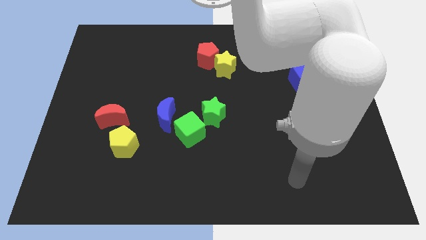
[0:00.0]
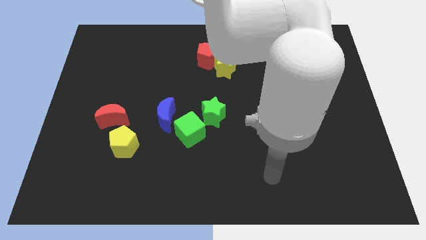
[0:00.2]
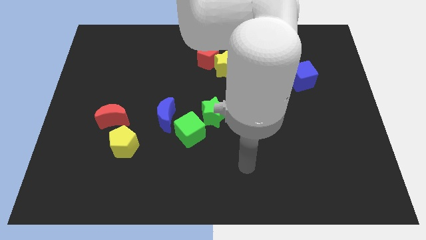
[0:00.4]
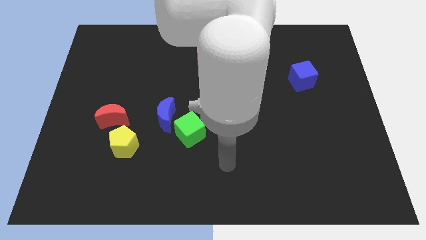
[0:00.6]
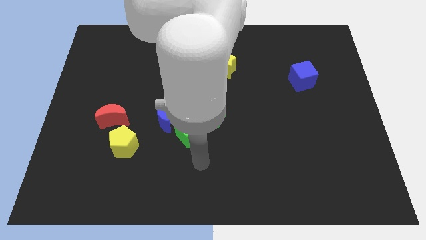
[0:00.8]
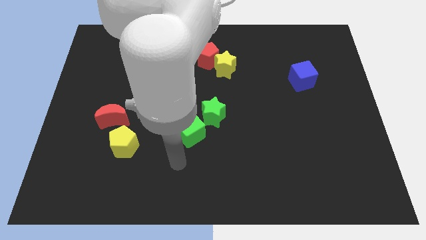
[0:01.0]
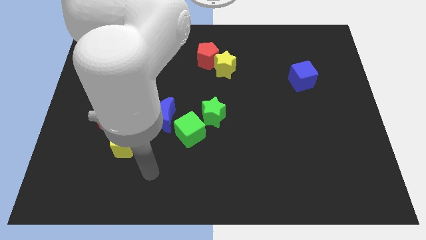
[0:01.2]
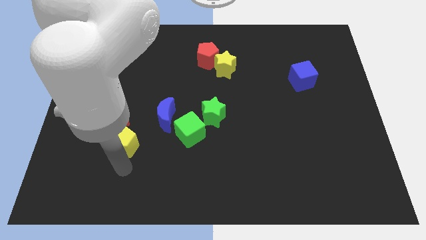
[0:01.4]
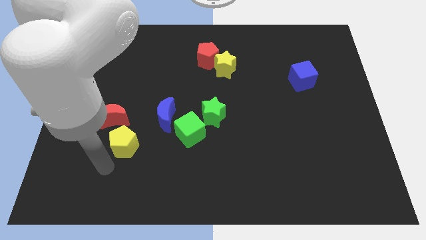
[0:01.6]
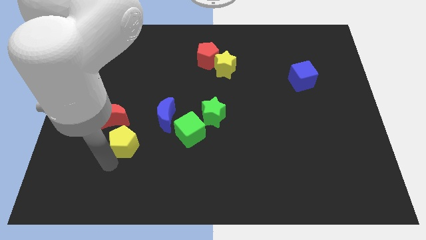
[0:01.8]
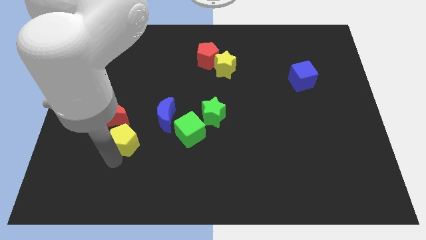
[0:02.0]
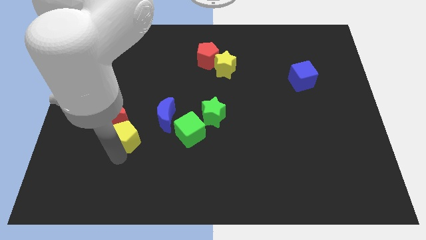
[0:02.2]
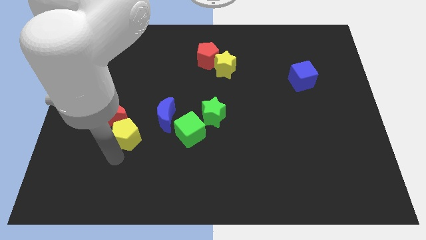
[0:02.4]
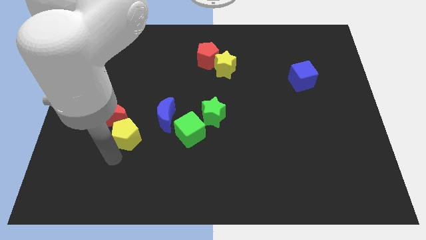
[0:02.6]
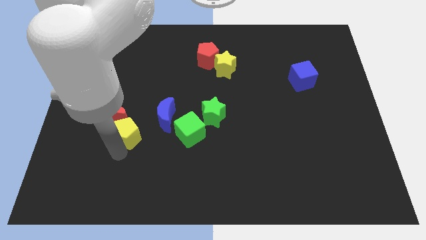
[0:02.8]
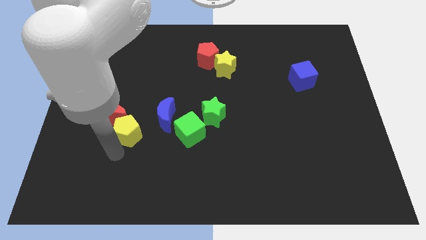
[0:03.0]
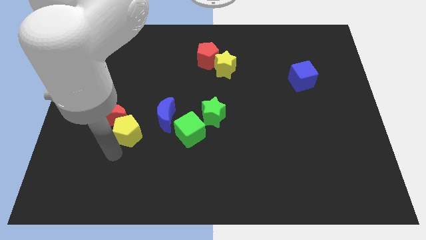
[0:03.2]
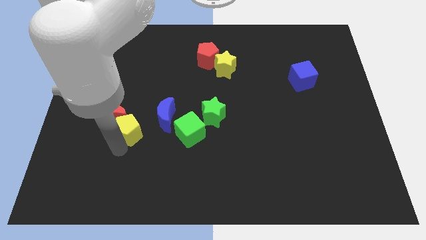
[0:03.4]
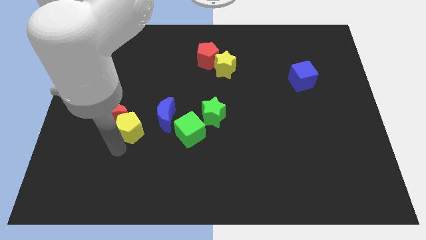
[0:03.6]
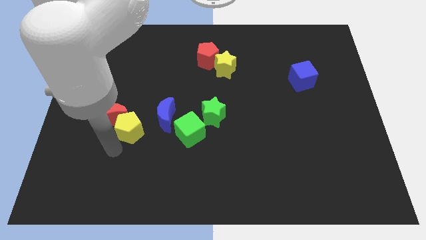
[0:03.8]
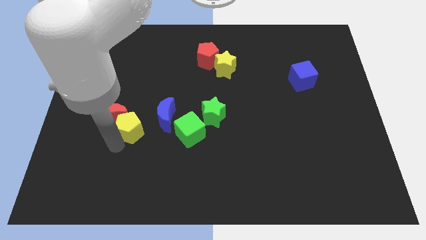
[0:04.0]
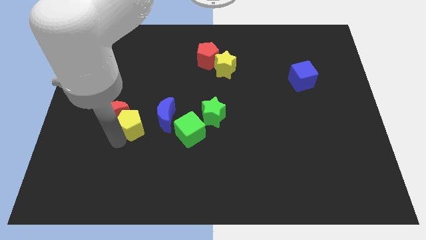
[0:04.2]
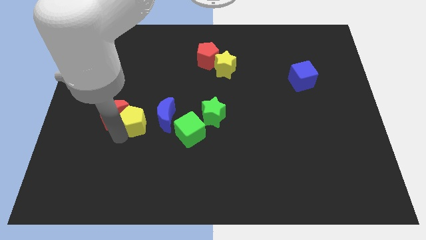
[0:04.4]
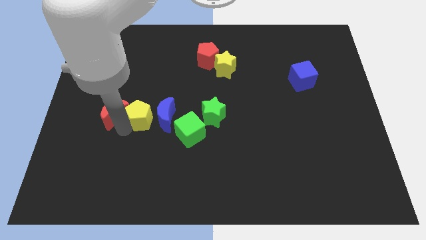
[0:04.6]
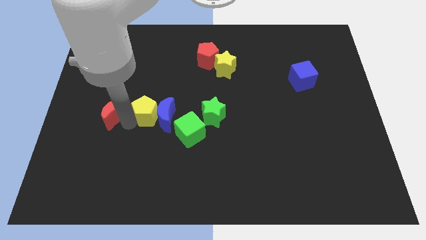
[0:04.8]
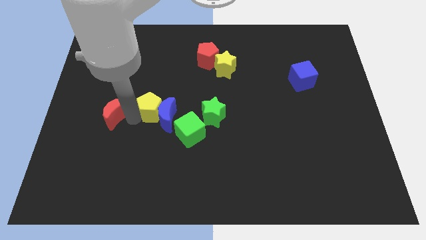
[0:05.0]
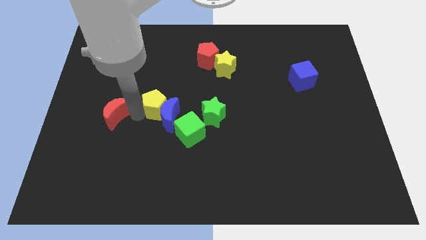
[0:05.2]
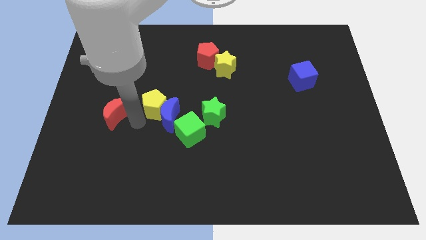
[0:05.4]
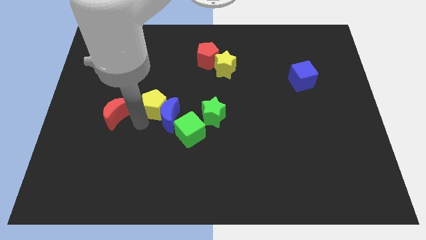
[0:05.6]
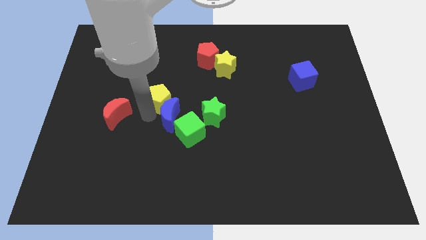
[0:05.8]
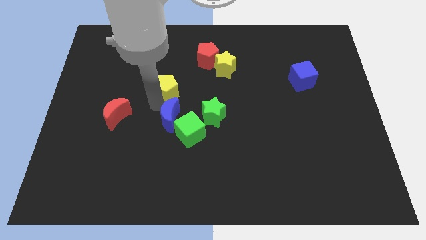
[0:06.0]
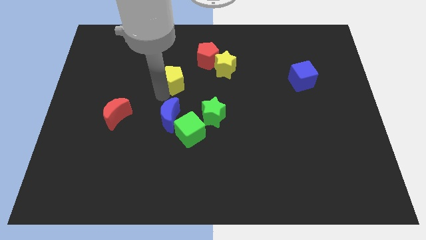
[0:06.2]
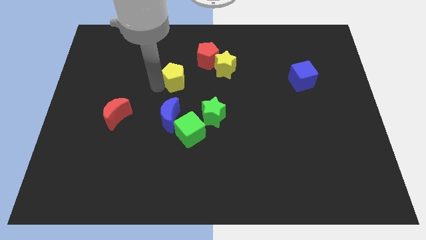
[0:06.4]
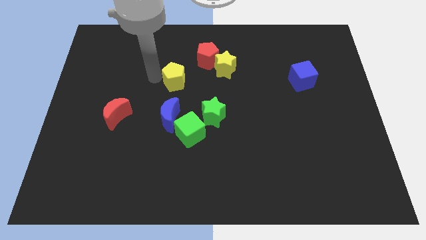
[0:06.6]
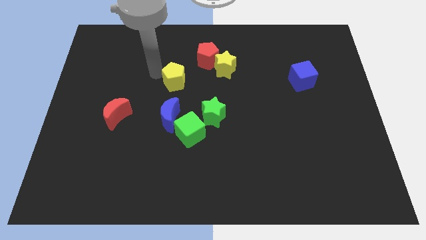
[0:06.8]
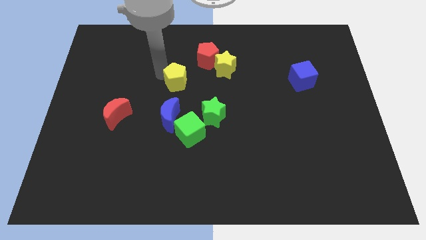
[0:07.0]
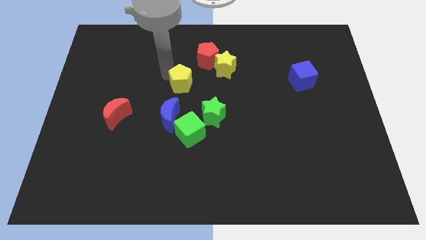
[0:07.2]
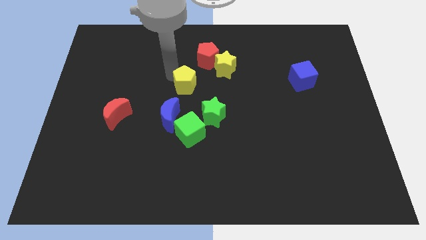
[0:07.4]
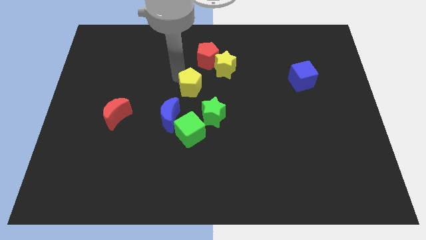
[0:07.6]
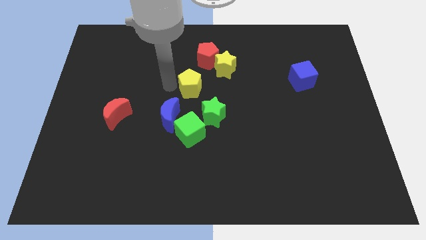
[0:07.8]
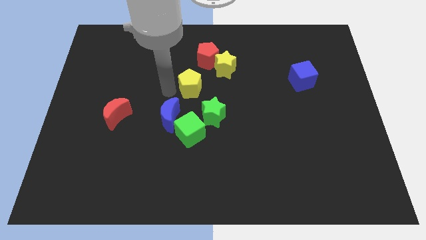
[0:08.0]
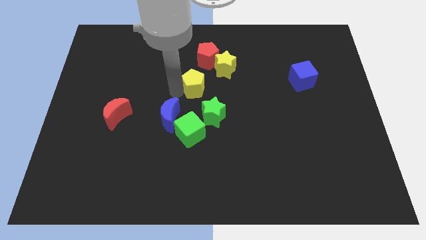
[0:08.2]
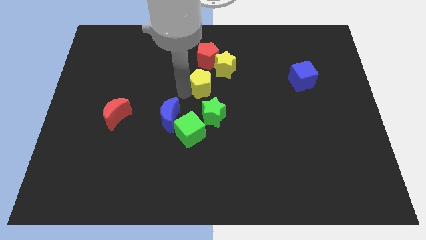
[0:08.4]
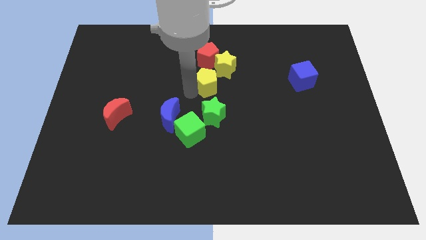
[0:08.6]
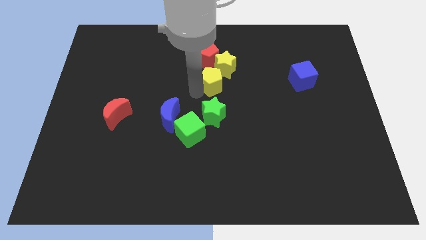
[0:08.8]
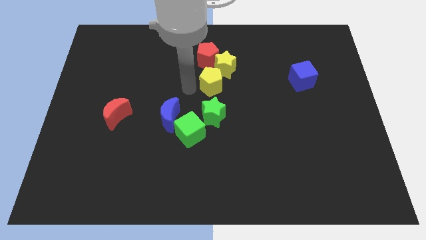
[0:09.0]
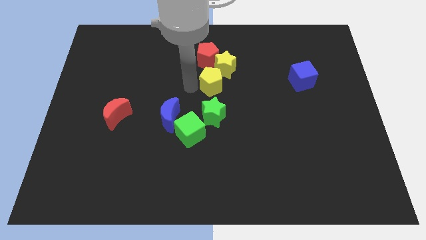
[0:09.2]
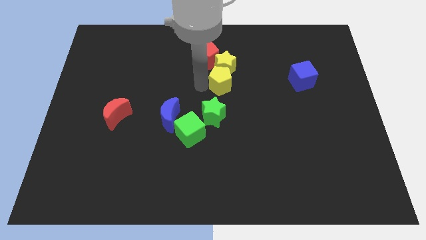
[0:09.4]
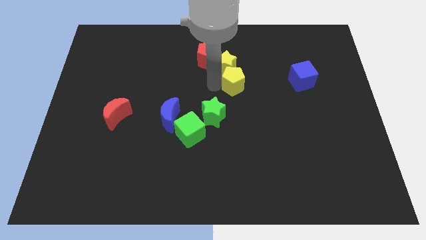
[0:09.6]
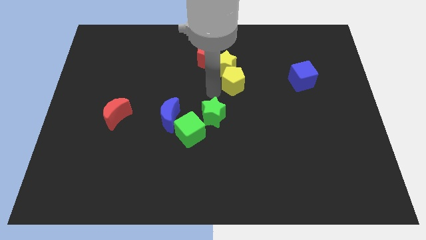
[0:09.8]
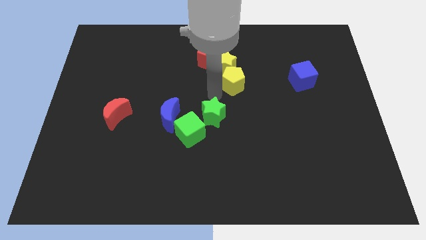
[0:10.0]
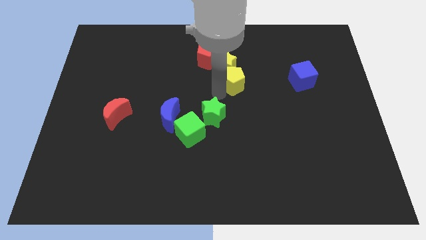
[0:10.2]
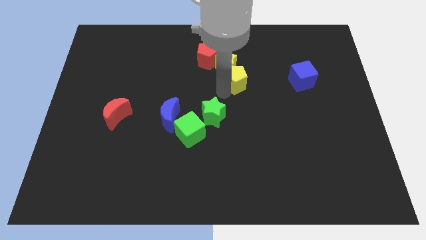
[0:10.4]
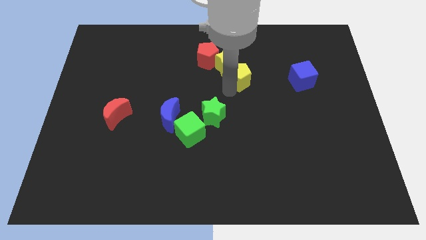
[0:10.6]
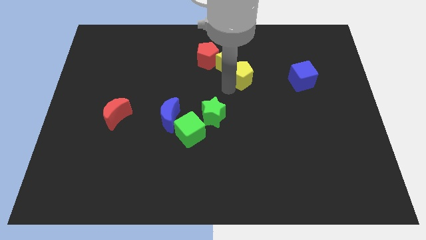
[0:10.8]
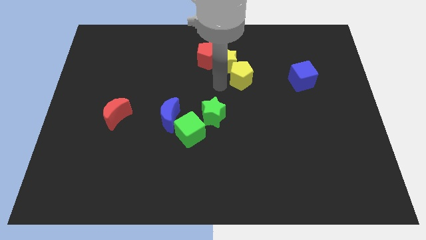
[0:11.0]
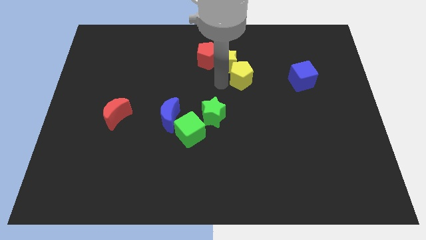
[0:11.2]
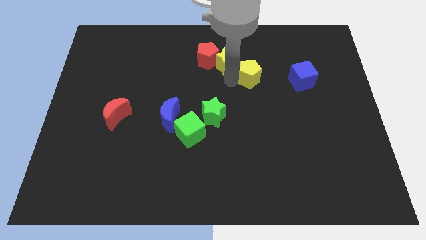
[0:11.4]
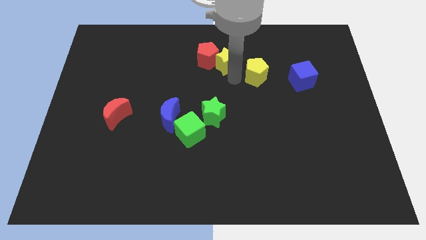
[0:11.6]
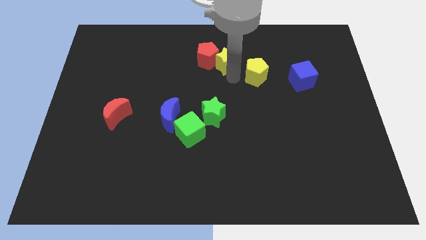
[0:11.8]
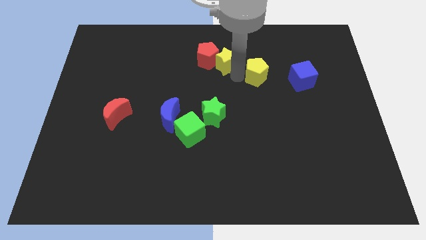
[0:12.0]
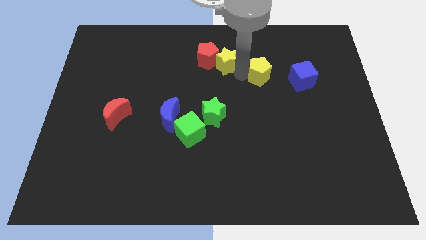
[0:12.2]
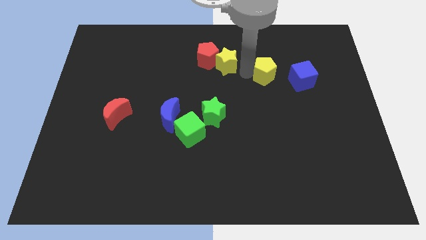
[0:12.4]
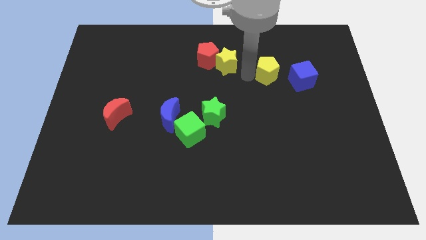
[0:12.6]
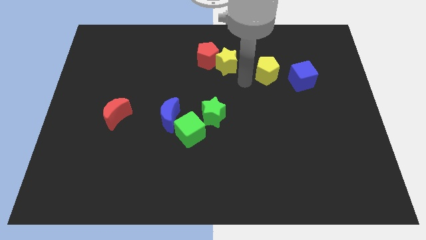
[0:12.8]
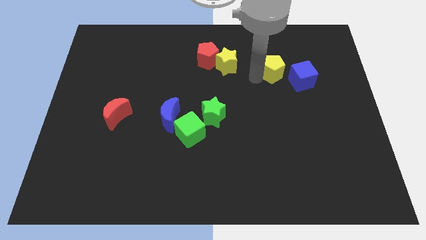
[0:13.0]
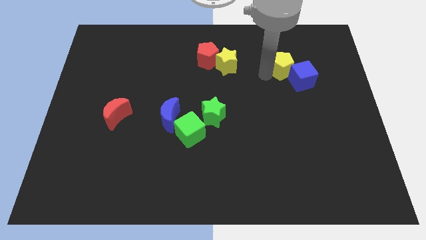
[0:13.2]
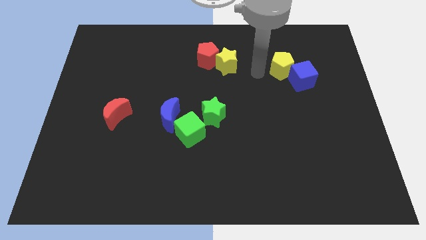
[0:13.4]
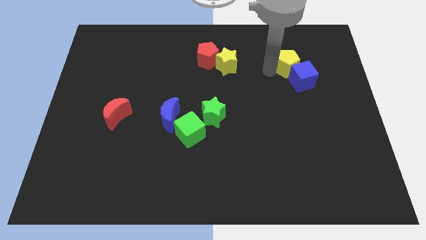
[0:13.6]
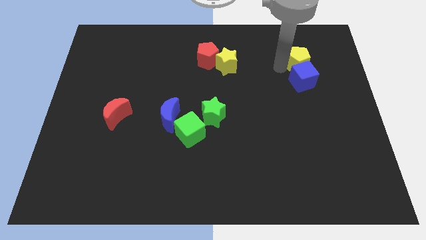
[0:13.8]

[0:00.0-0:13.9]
move the yellow pentagon to the top right side of the blue cube

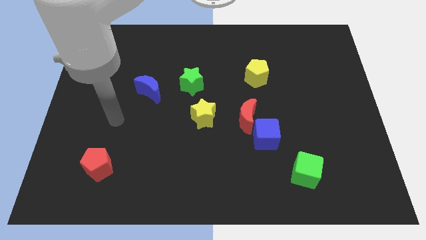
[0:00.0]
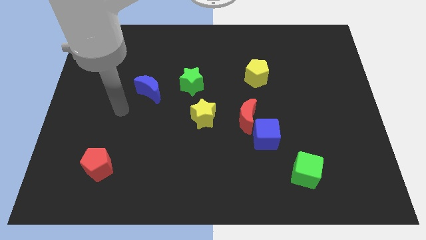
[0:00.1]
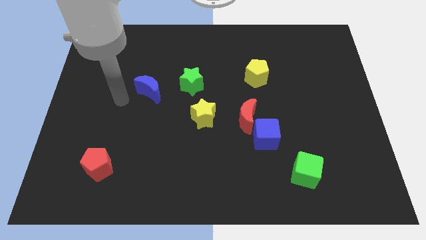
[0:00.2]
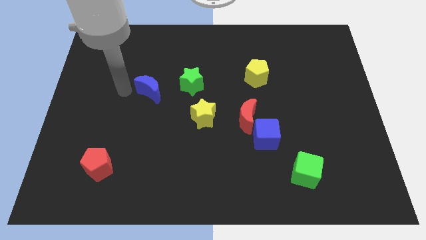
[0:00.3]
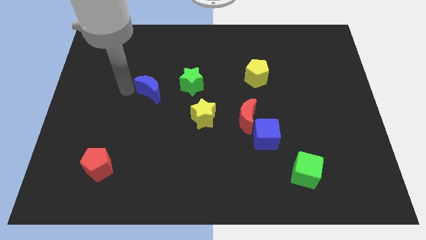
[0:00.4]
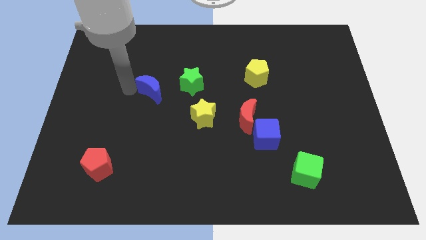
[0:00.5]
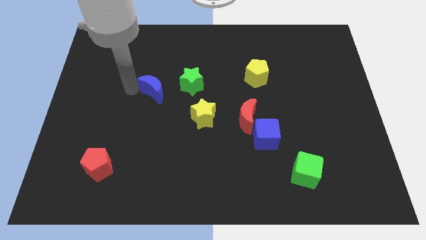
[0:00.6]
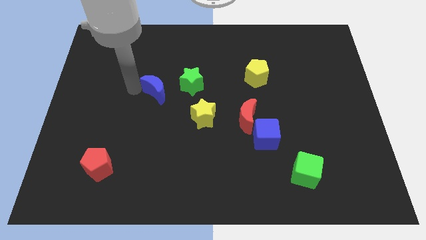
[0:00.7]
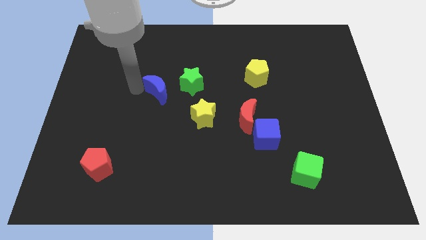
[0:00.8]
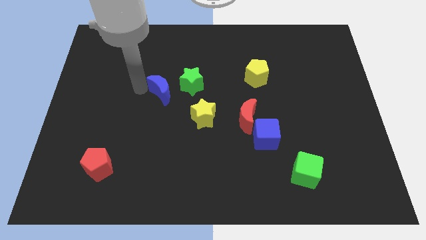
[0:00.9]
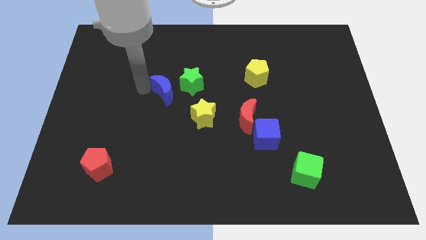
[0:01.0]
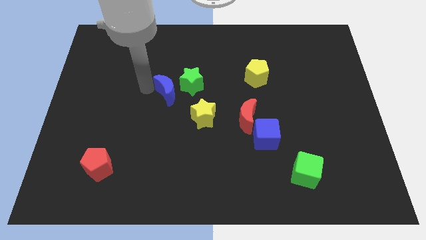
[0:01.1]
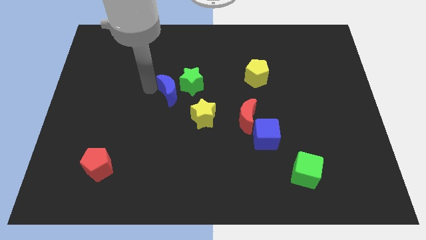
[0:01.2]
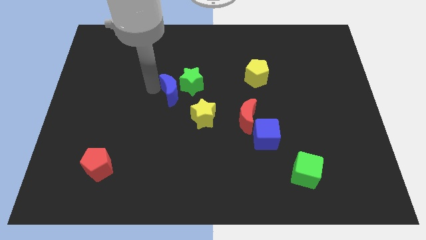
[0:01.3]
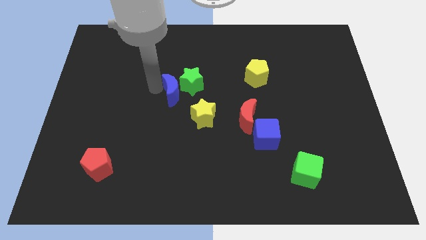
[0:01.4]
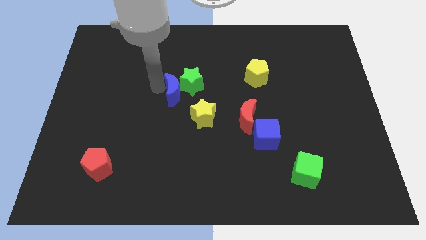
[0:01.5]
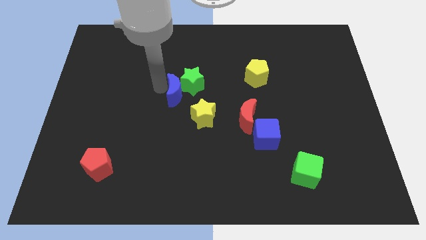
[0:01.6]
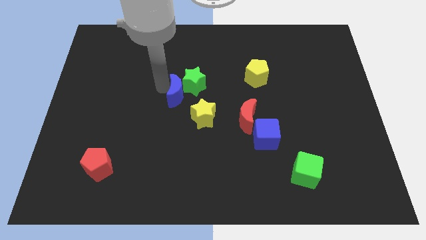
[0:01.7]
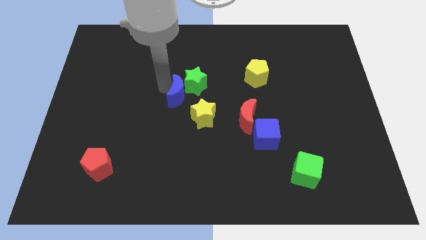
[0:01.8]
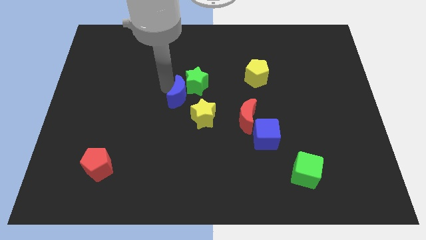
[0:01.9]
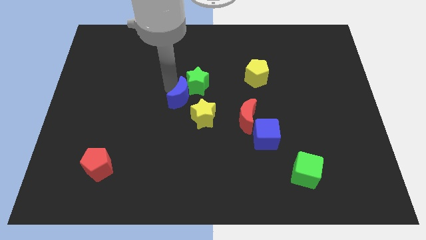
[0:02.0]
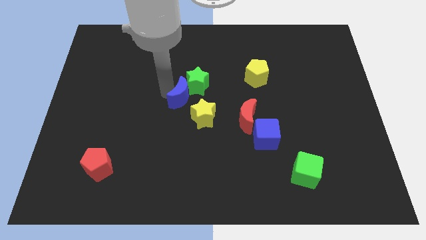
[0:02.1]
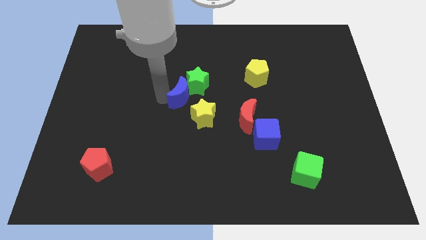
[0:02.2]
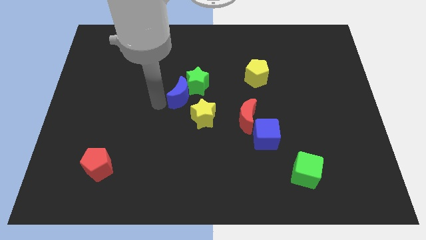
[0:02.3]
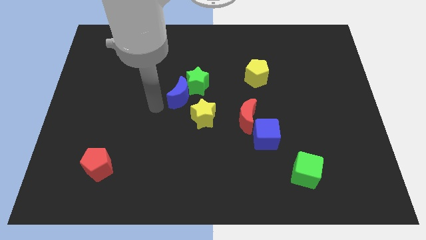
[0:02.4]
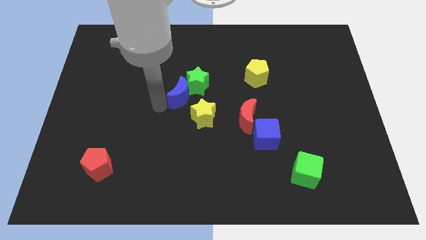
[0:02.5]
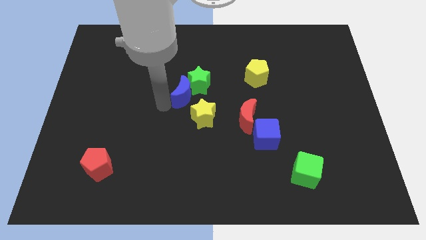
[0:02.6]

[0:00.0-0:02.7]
slide the blue moon to the top of the yellow star
